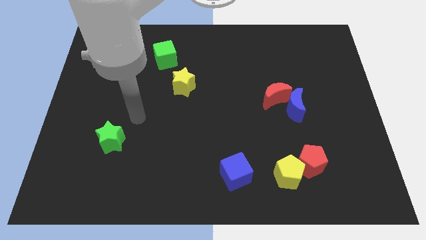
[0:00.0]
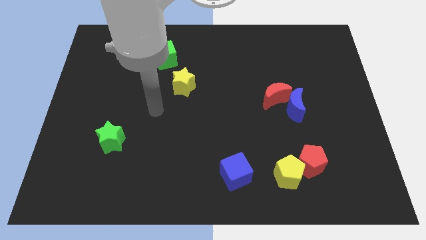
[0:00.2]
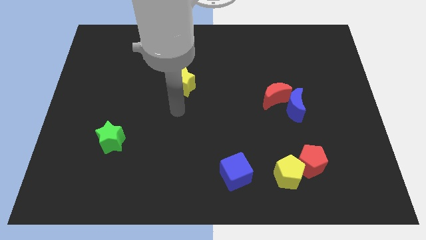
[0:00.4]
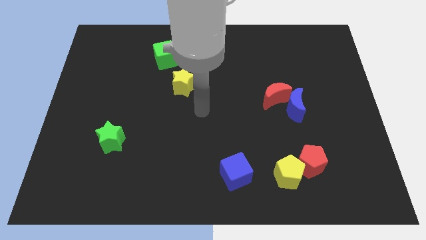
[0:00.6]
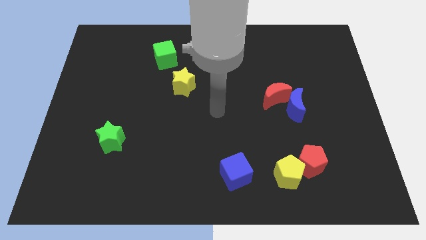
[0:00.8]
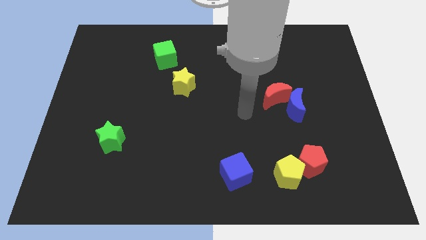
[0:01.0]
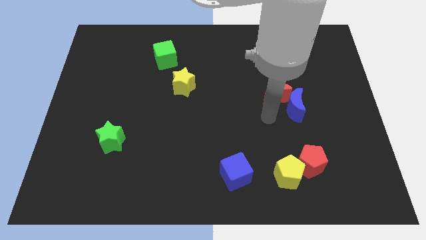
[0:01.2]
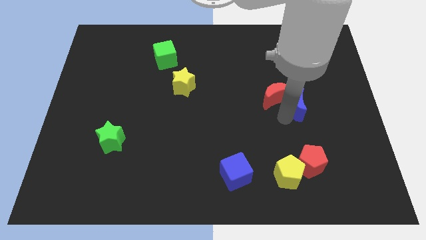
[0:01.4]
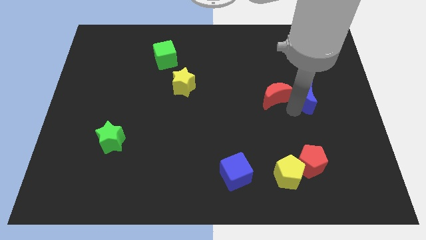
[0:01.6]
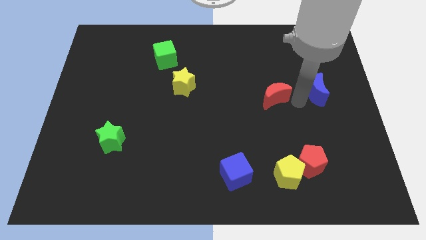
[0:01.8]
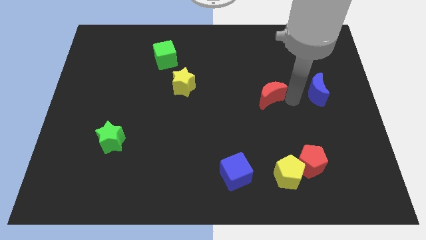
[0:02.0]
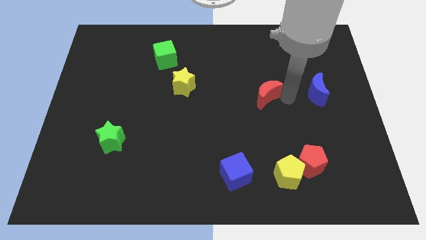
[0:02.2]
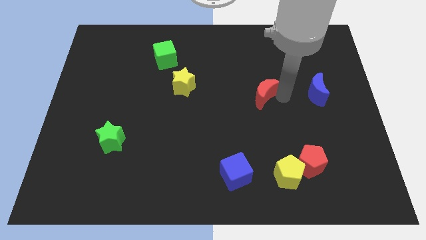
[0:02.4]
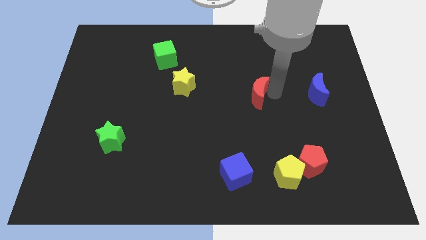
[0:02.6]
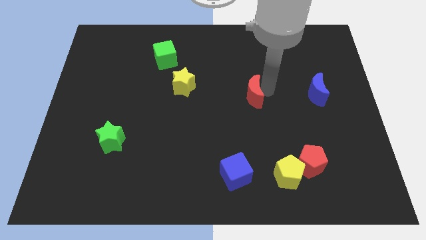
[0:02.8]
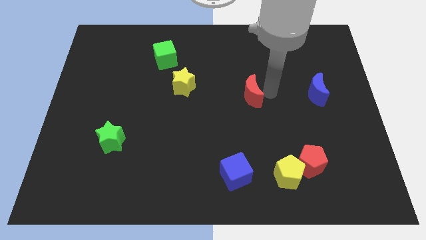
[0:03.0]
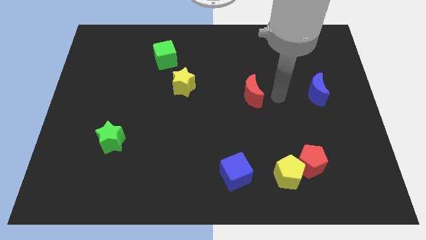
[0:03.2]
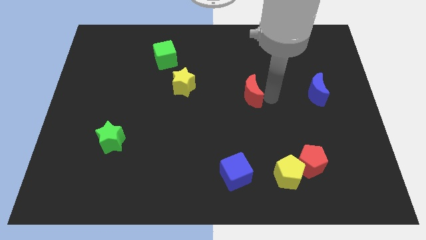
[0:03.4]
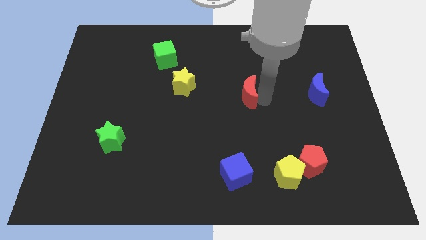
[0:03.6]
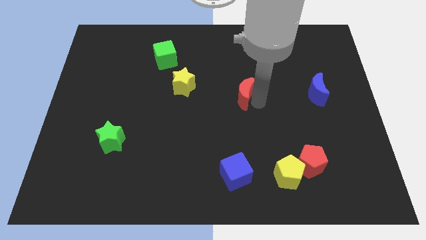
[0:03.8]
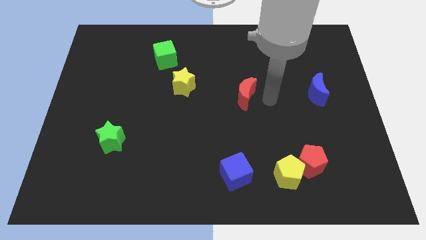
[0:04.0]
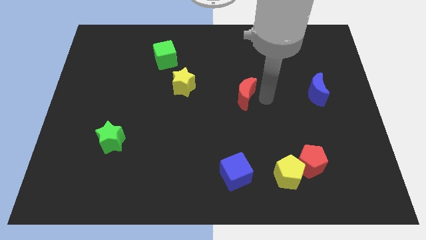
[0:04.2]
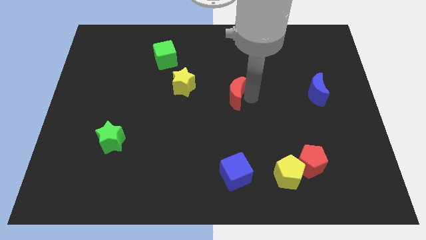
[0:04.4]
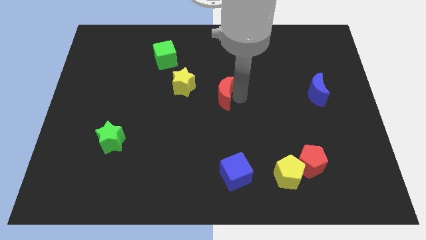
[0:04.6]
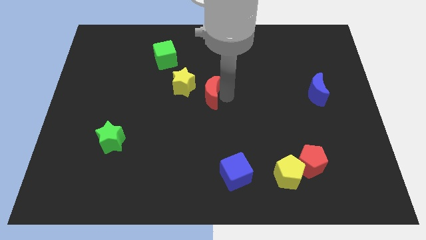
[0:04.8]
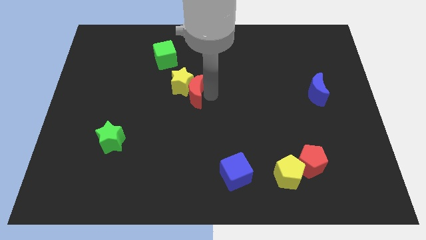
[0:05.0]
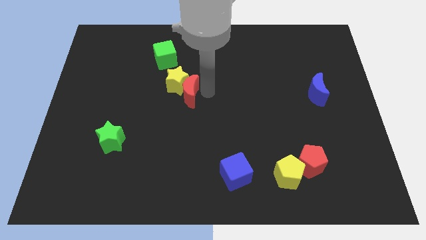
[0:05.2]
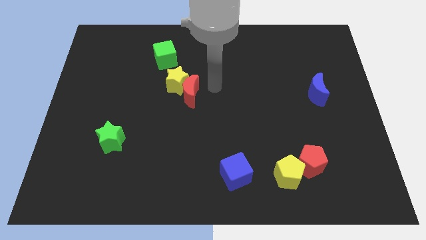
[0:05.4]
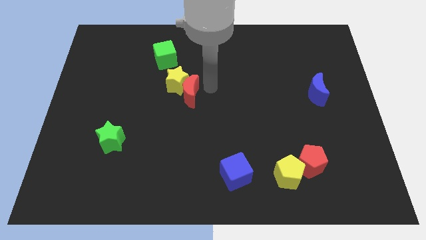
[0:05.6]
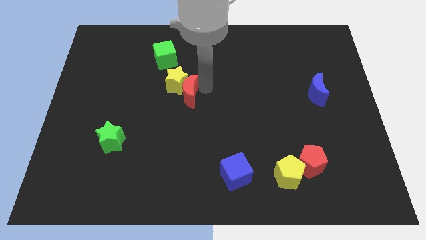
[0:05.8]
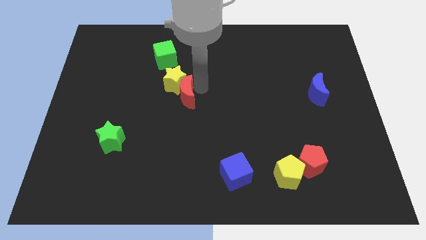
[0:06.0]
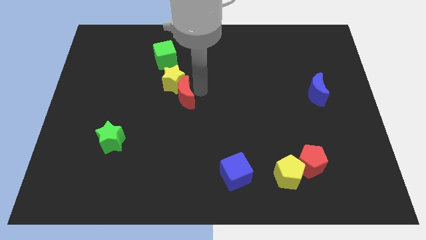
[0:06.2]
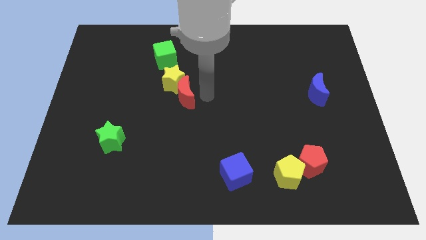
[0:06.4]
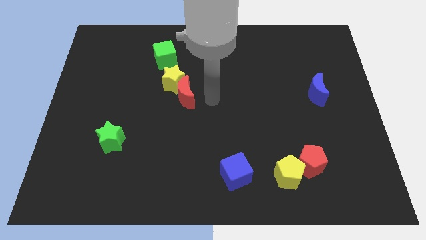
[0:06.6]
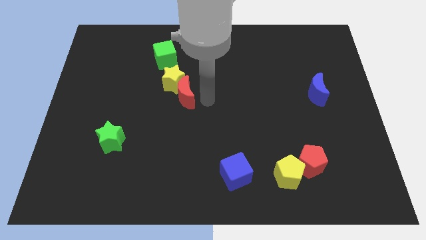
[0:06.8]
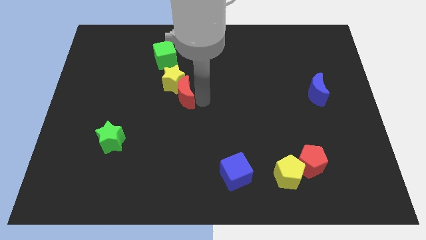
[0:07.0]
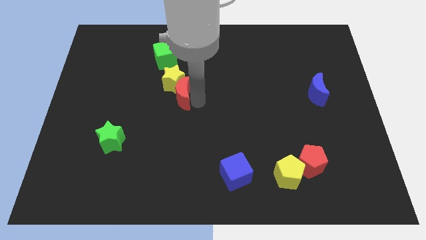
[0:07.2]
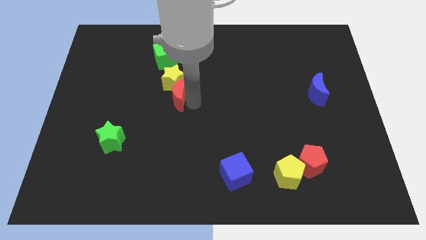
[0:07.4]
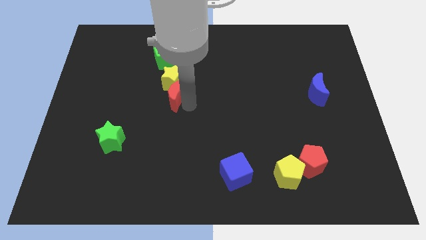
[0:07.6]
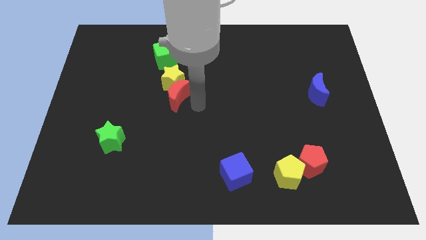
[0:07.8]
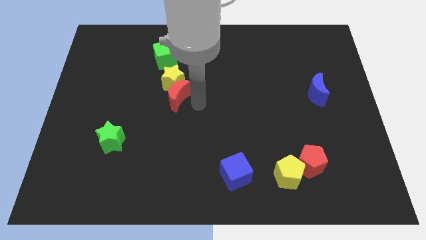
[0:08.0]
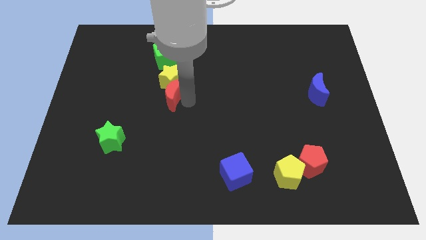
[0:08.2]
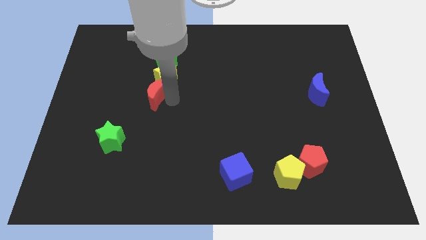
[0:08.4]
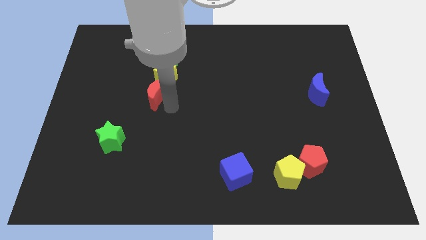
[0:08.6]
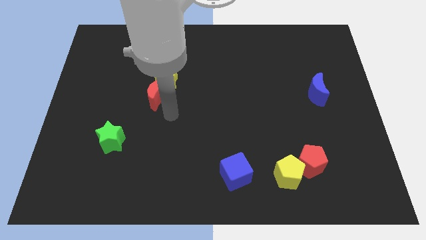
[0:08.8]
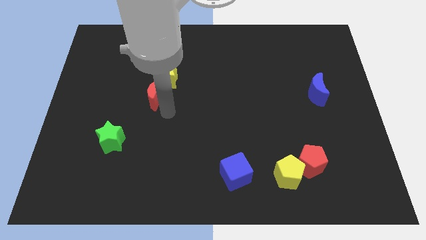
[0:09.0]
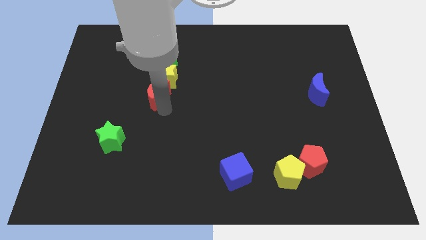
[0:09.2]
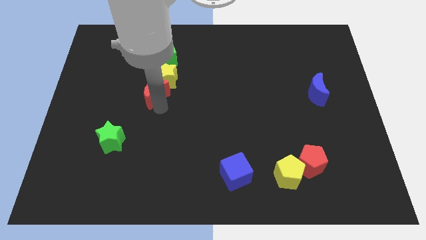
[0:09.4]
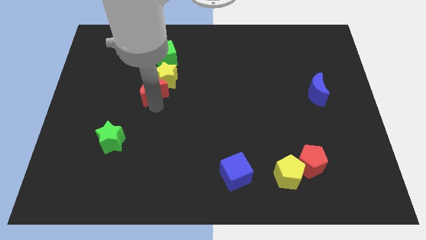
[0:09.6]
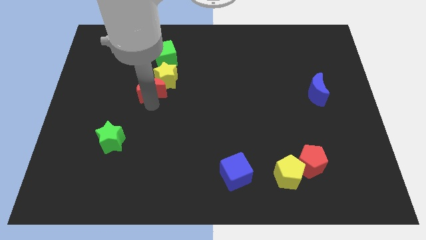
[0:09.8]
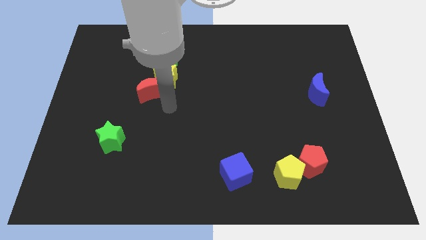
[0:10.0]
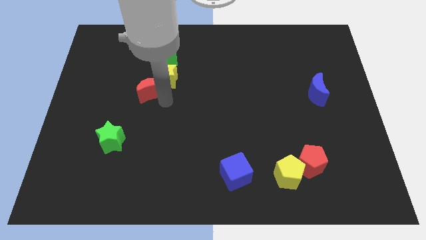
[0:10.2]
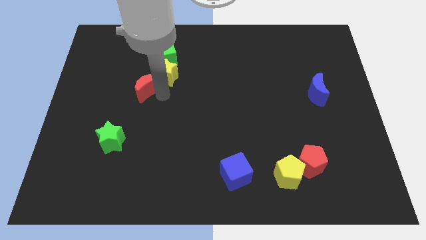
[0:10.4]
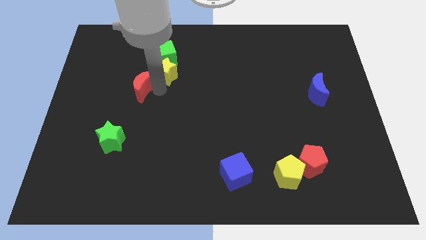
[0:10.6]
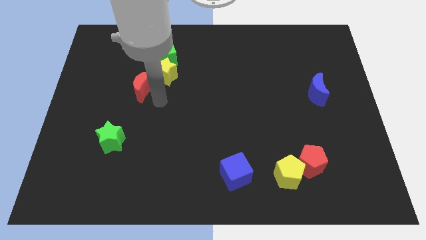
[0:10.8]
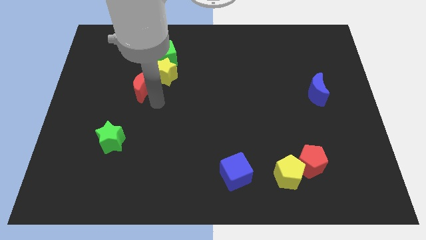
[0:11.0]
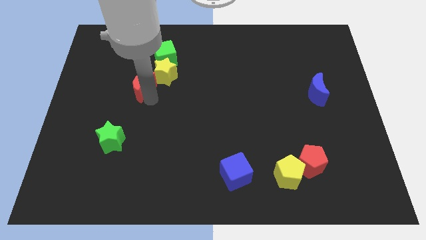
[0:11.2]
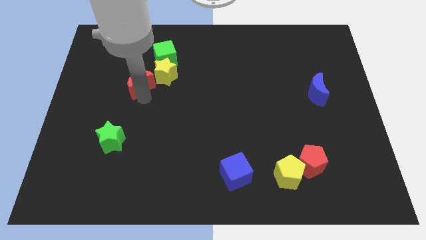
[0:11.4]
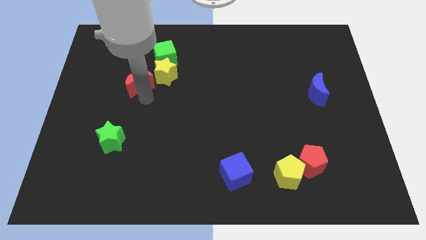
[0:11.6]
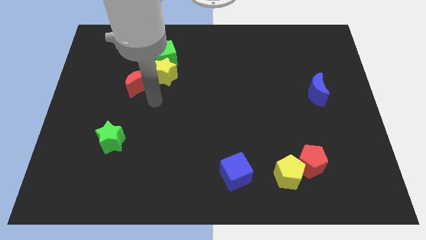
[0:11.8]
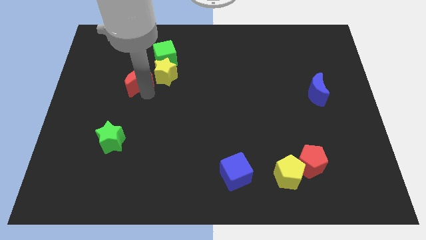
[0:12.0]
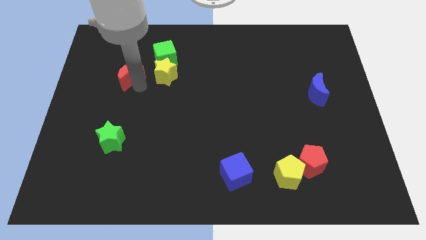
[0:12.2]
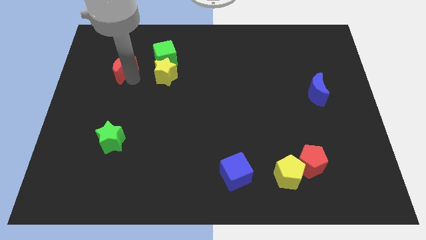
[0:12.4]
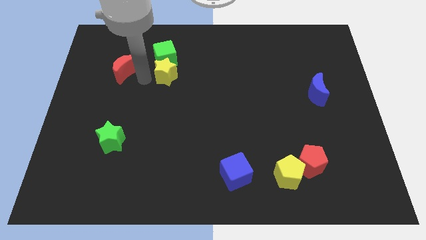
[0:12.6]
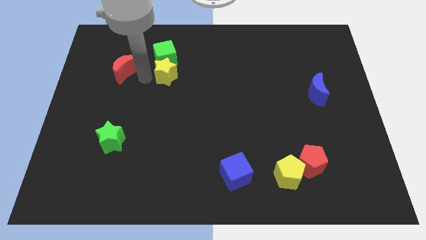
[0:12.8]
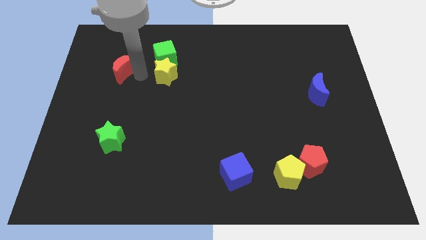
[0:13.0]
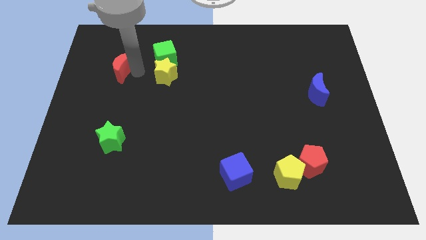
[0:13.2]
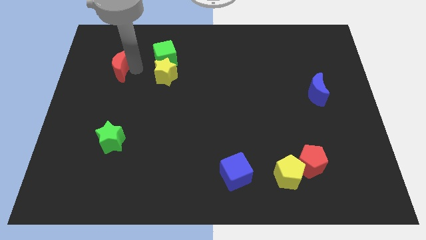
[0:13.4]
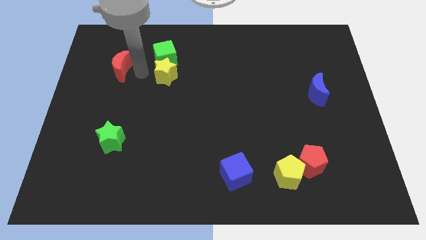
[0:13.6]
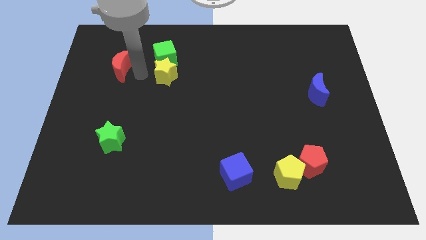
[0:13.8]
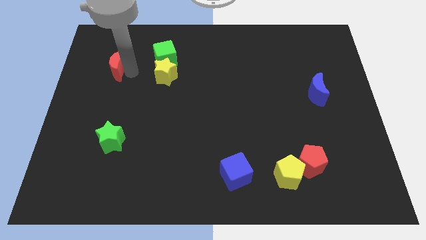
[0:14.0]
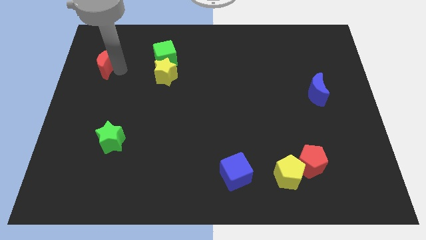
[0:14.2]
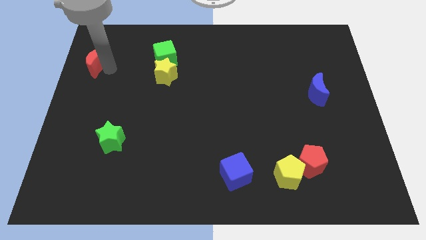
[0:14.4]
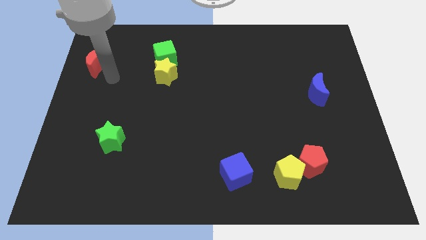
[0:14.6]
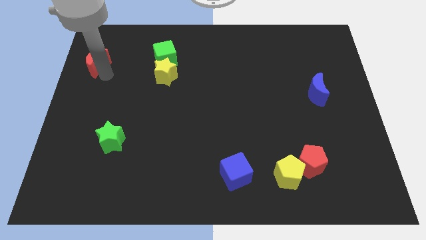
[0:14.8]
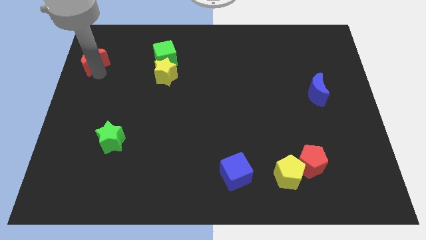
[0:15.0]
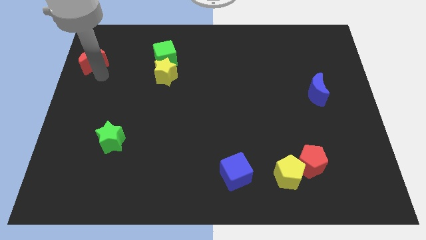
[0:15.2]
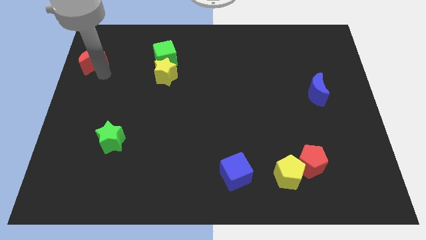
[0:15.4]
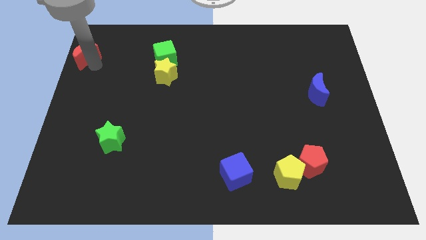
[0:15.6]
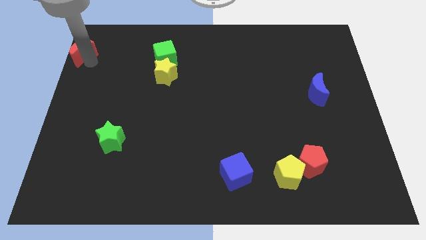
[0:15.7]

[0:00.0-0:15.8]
put the red moon to the top left
